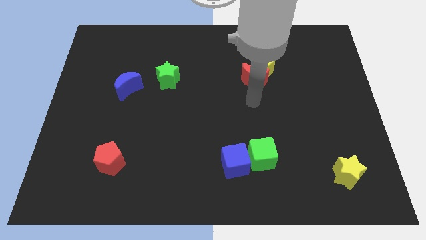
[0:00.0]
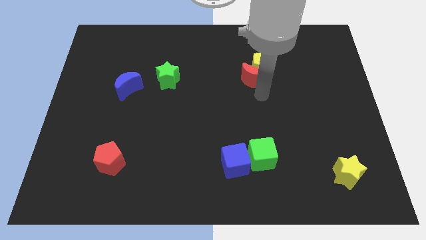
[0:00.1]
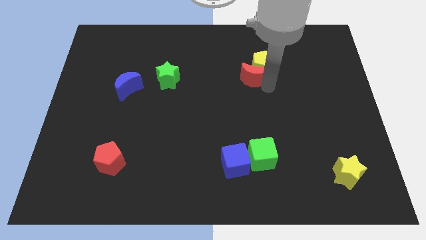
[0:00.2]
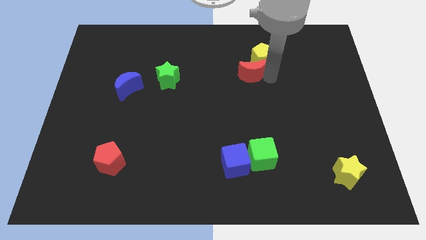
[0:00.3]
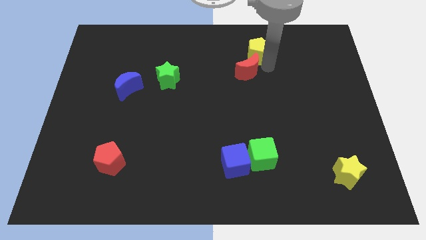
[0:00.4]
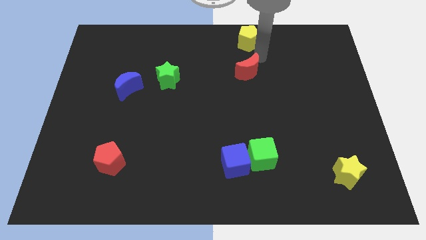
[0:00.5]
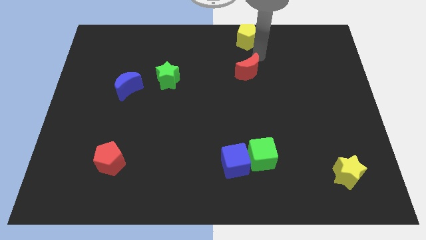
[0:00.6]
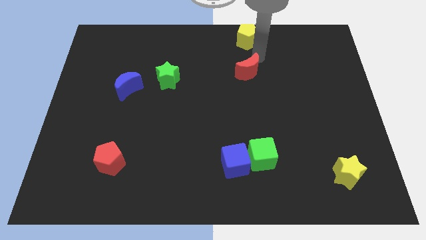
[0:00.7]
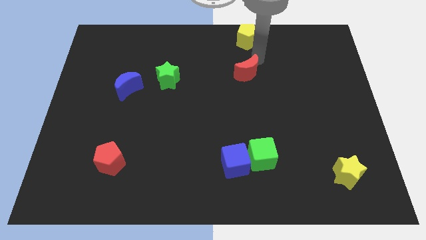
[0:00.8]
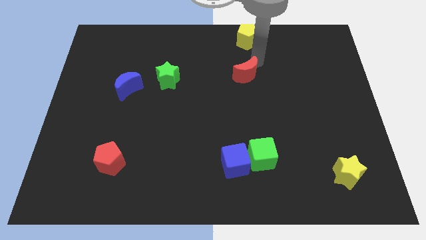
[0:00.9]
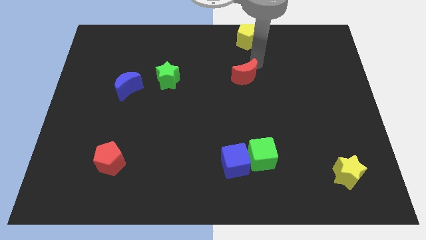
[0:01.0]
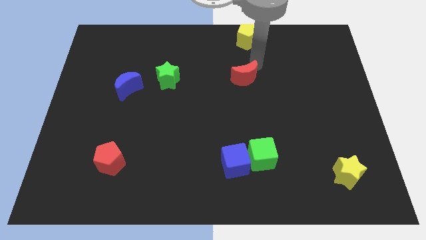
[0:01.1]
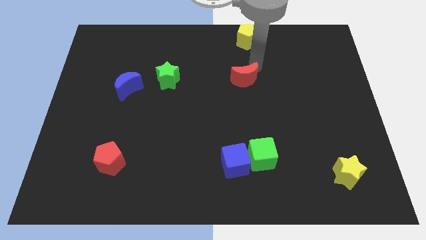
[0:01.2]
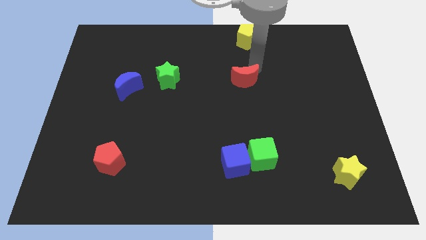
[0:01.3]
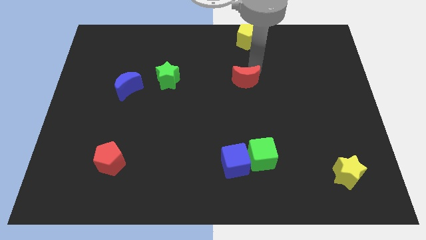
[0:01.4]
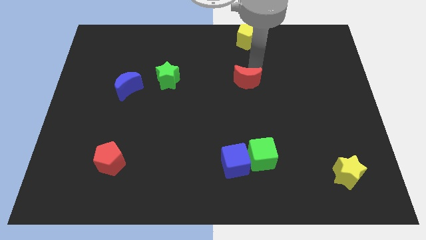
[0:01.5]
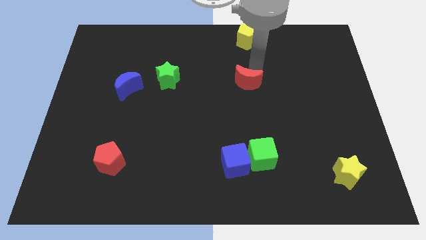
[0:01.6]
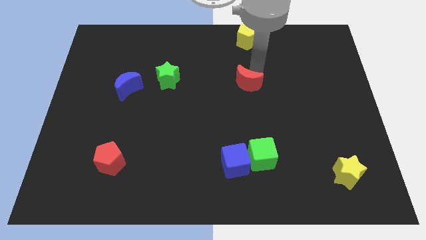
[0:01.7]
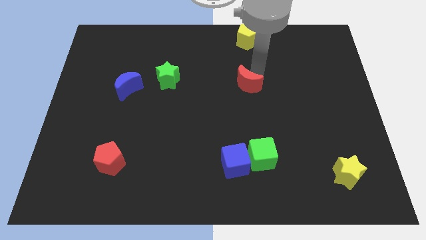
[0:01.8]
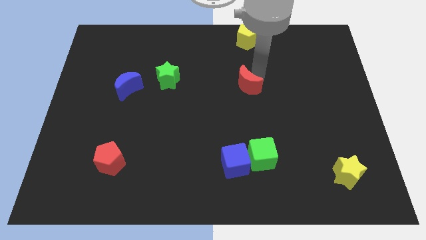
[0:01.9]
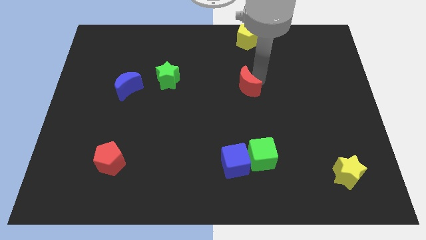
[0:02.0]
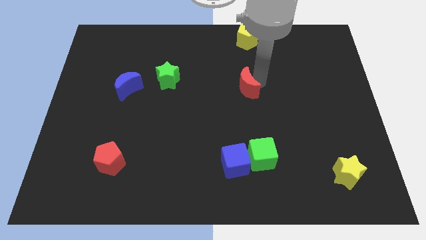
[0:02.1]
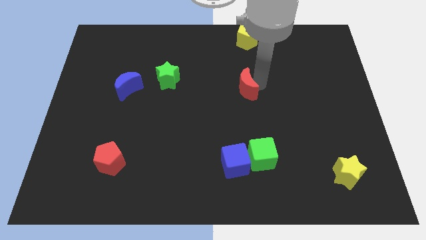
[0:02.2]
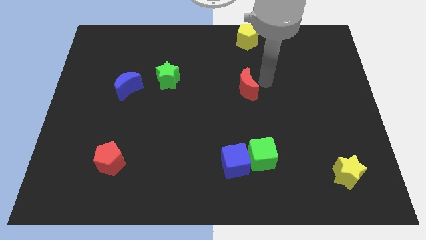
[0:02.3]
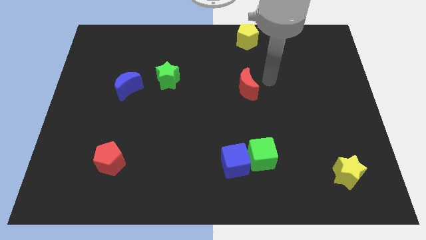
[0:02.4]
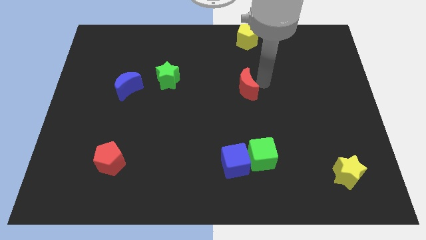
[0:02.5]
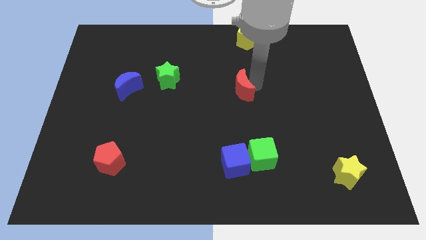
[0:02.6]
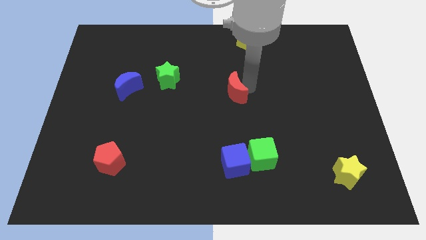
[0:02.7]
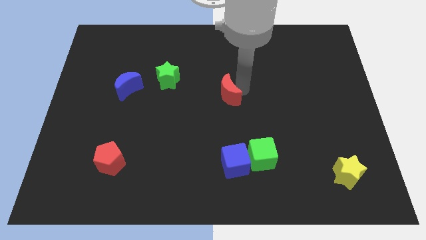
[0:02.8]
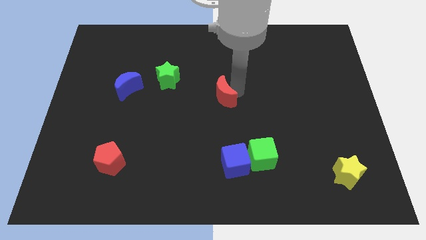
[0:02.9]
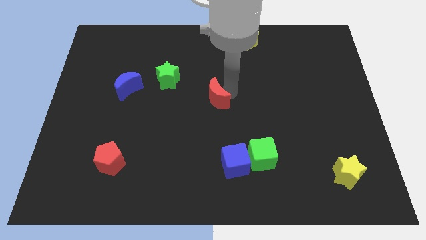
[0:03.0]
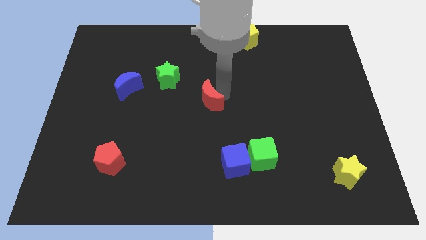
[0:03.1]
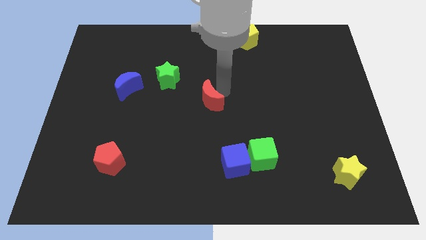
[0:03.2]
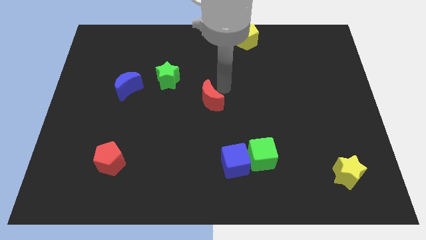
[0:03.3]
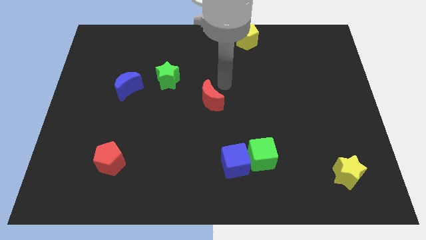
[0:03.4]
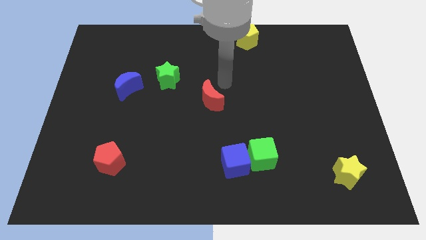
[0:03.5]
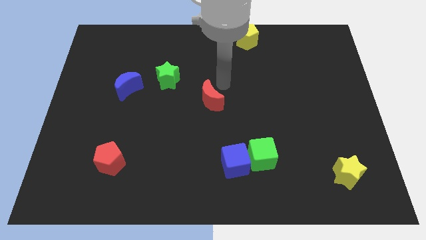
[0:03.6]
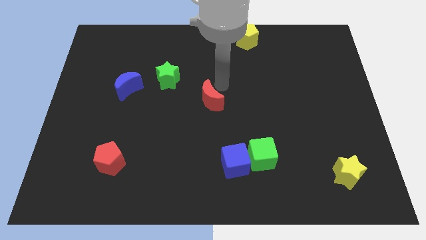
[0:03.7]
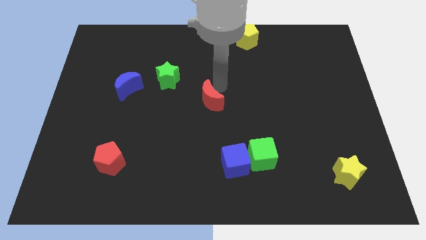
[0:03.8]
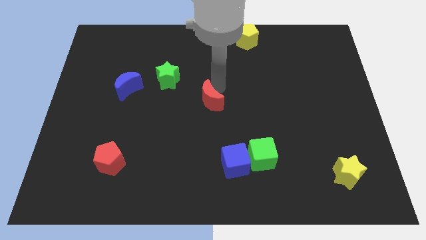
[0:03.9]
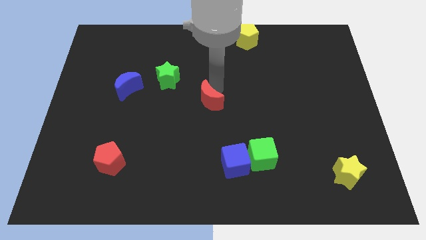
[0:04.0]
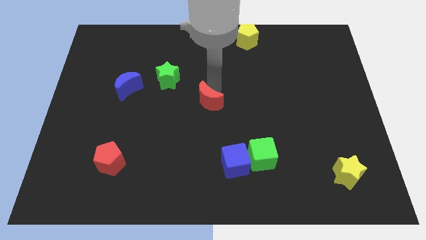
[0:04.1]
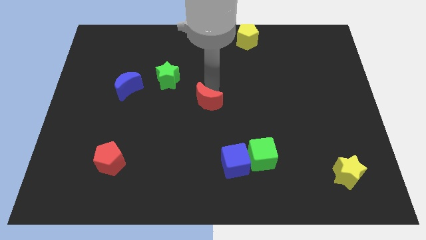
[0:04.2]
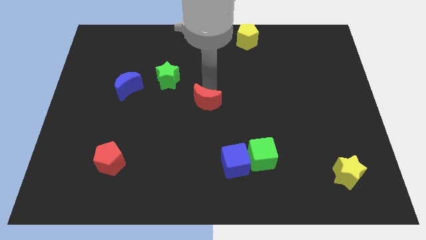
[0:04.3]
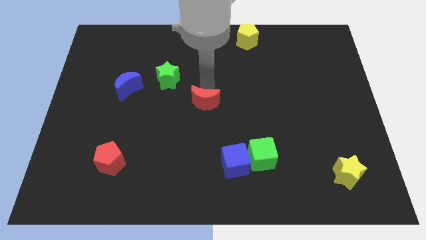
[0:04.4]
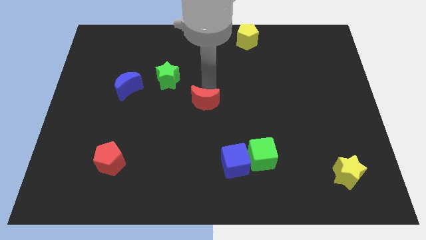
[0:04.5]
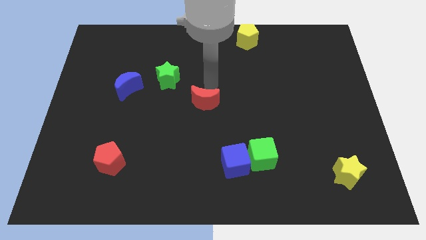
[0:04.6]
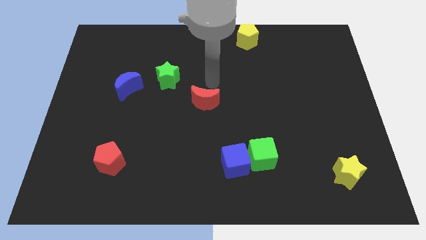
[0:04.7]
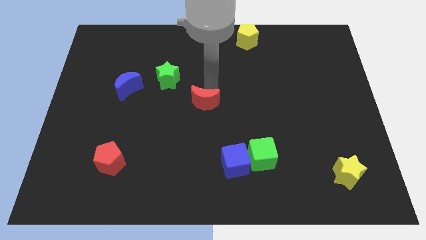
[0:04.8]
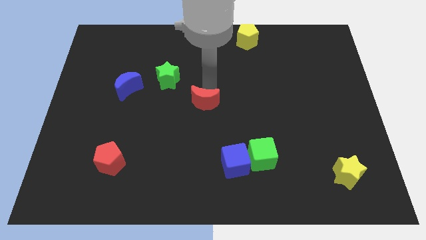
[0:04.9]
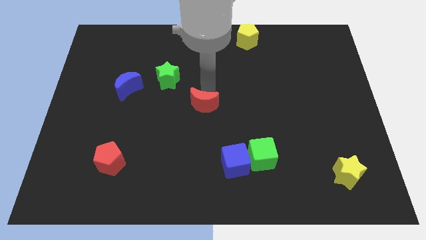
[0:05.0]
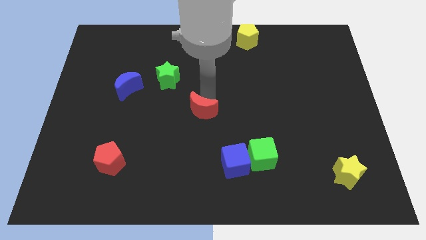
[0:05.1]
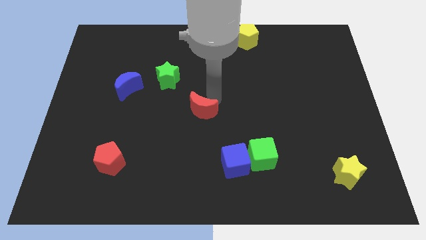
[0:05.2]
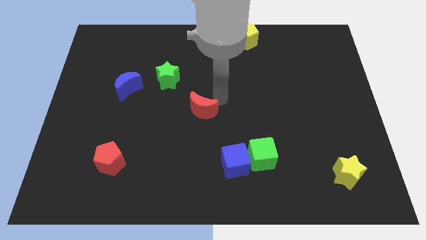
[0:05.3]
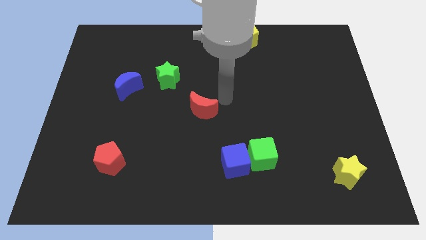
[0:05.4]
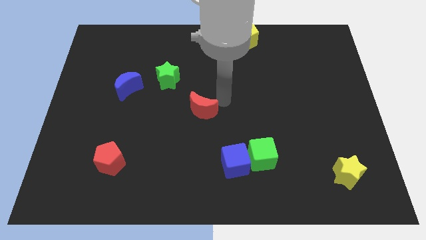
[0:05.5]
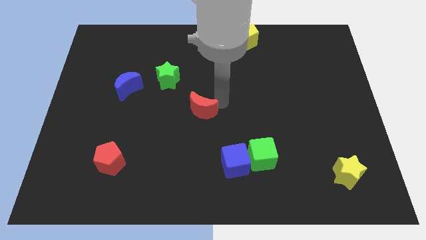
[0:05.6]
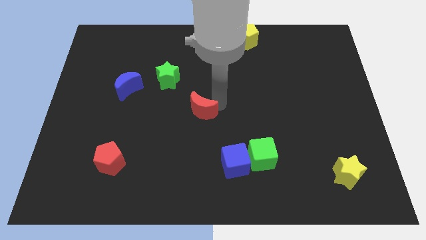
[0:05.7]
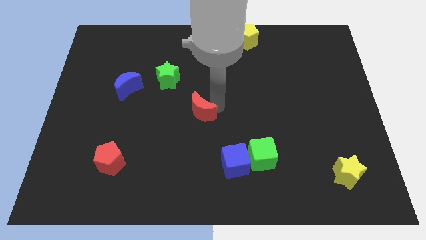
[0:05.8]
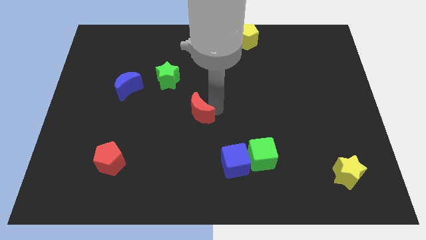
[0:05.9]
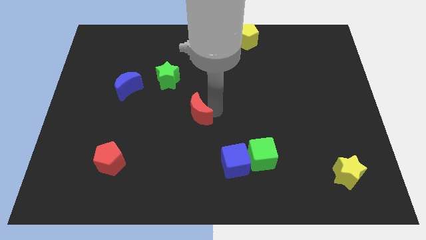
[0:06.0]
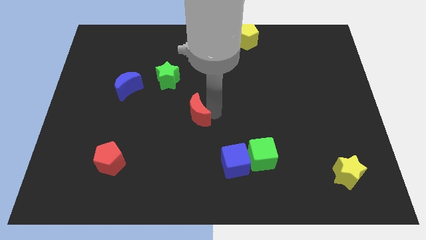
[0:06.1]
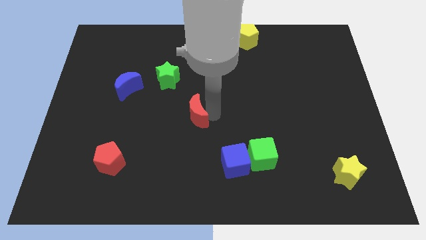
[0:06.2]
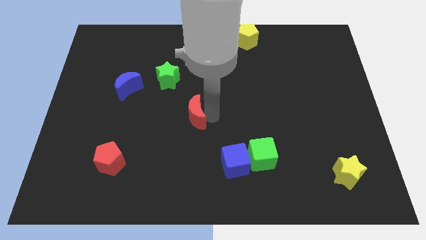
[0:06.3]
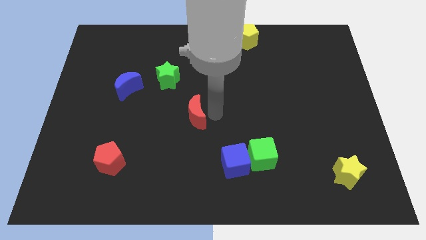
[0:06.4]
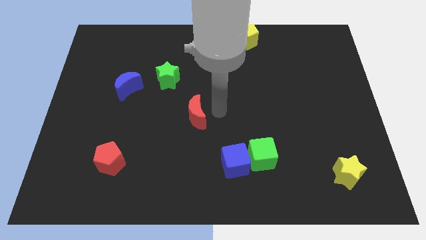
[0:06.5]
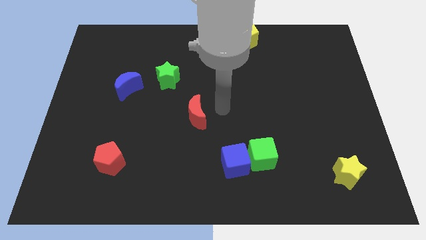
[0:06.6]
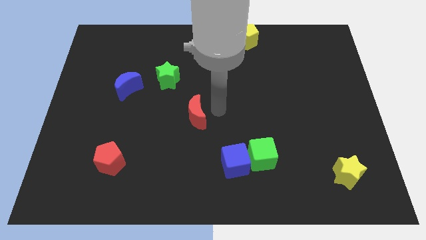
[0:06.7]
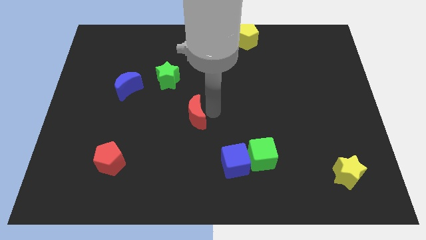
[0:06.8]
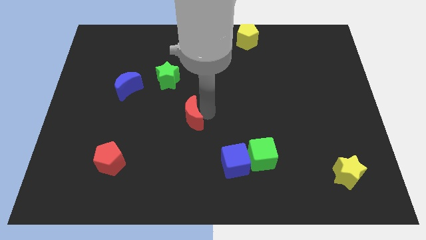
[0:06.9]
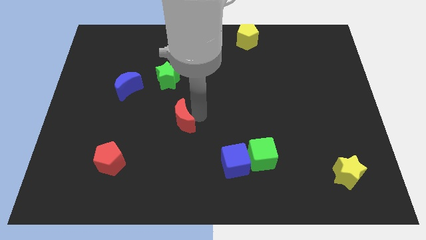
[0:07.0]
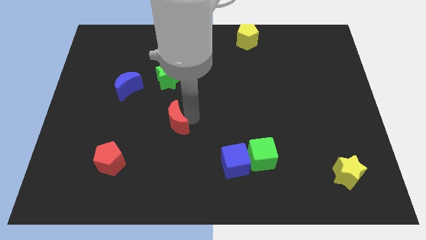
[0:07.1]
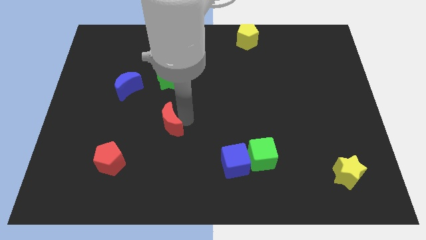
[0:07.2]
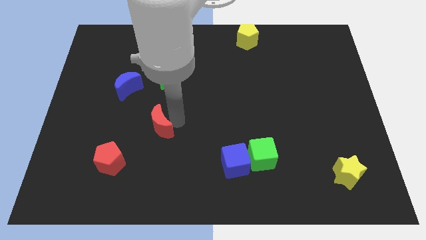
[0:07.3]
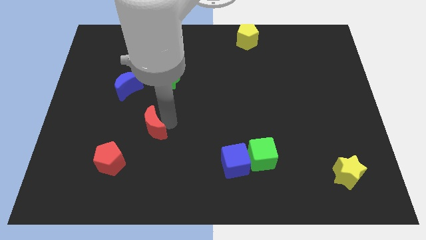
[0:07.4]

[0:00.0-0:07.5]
push the red moon to the top right side of the red pentagon
